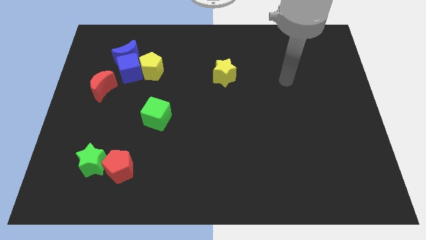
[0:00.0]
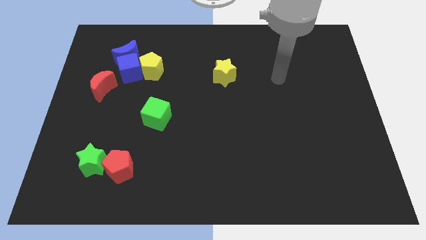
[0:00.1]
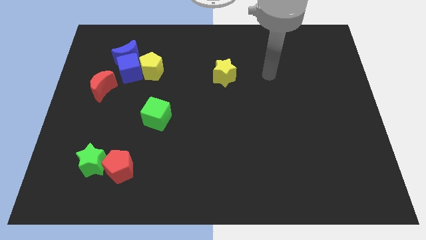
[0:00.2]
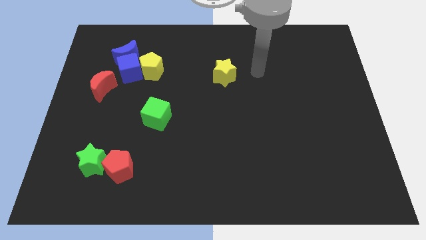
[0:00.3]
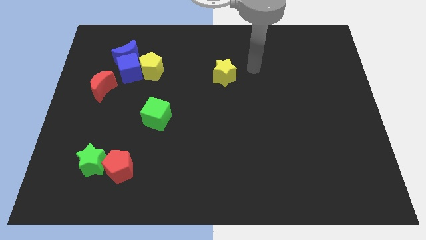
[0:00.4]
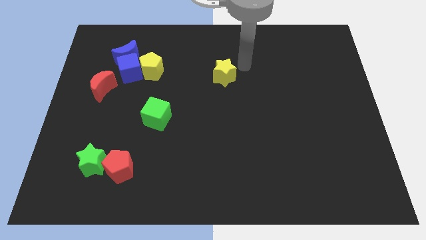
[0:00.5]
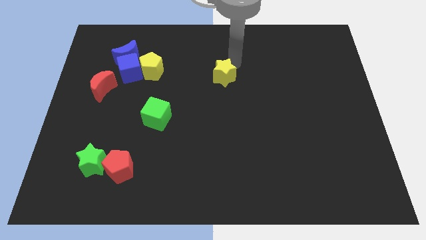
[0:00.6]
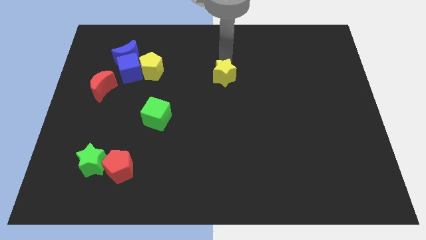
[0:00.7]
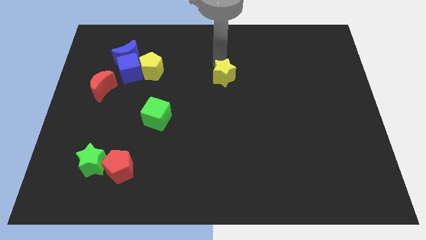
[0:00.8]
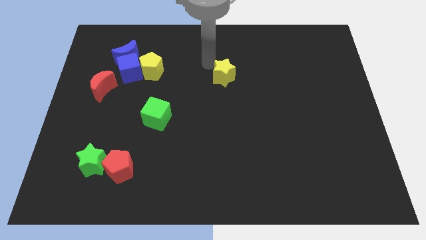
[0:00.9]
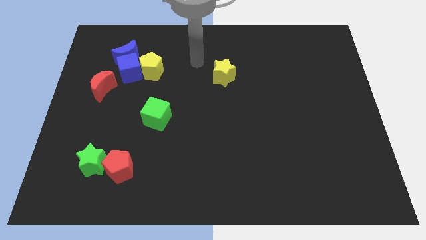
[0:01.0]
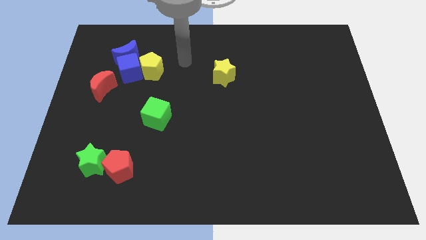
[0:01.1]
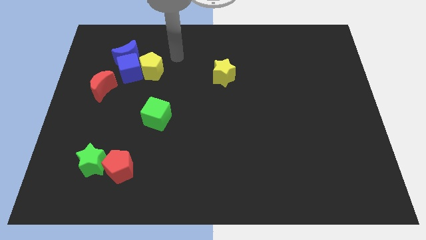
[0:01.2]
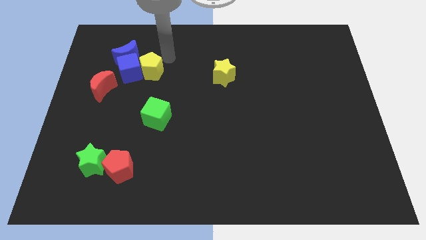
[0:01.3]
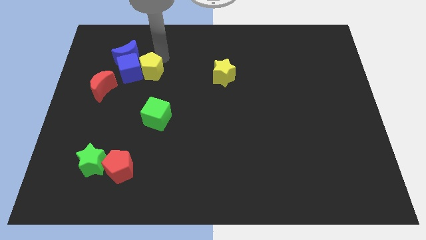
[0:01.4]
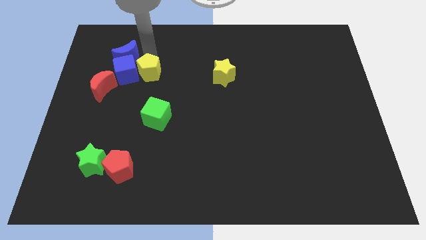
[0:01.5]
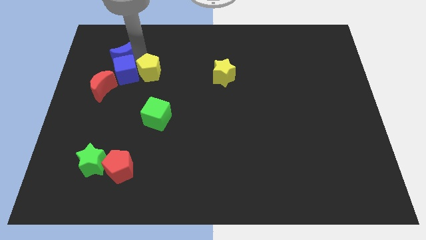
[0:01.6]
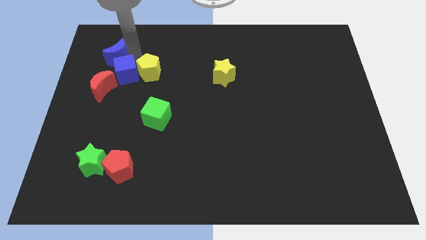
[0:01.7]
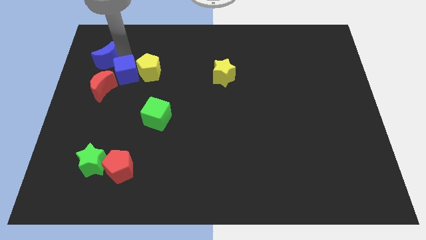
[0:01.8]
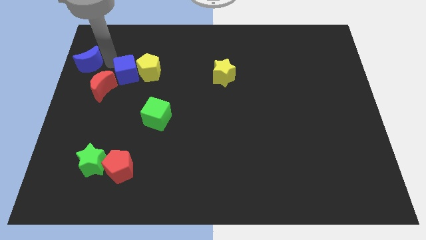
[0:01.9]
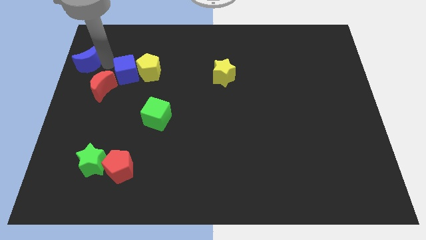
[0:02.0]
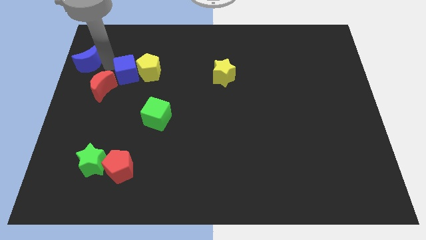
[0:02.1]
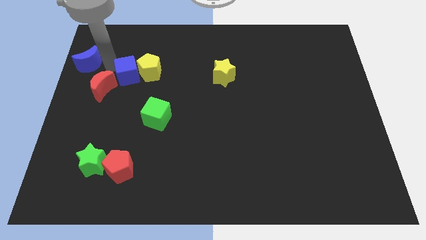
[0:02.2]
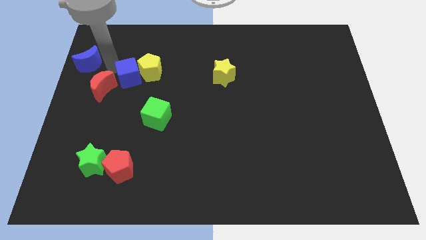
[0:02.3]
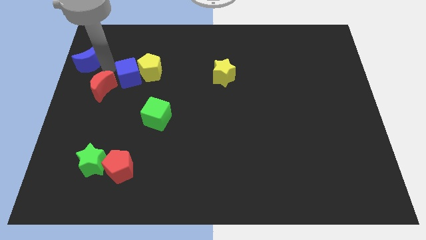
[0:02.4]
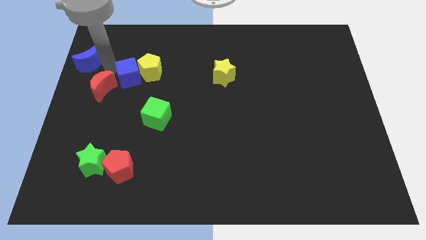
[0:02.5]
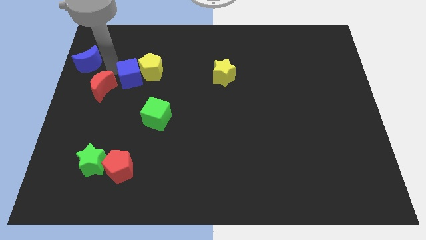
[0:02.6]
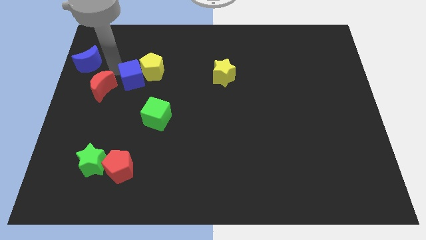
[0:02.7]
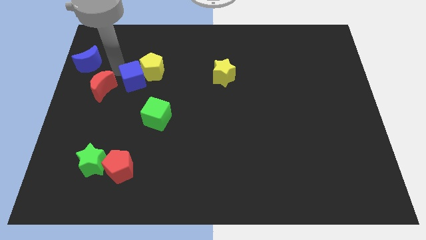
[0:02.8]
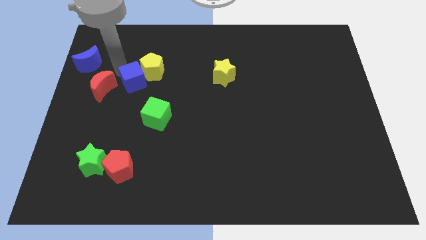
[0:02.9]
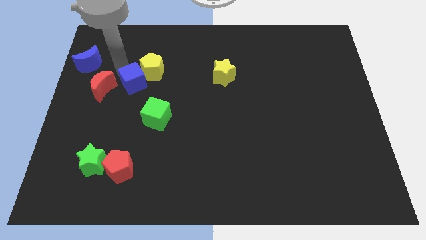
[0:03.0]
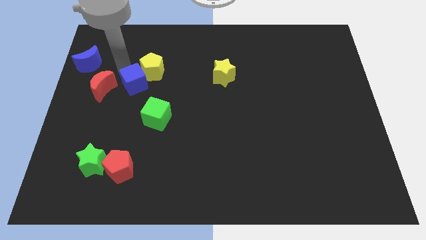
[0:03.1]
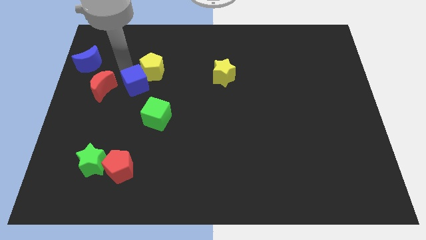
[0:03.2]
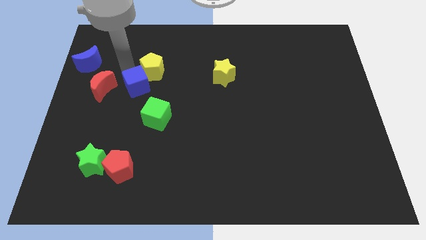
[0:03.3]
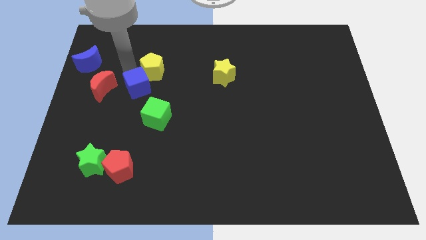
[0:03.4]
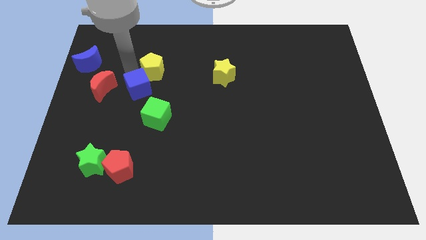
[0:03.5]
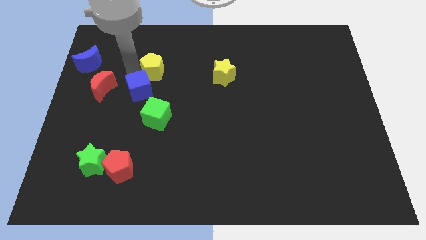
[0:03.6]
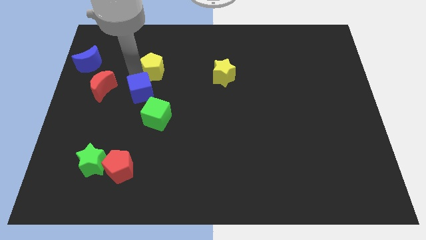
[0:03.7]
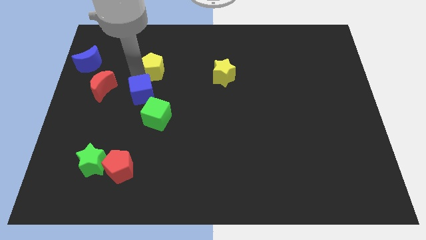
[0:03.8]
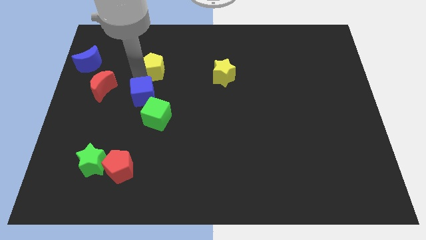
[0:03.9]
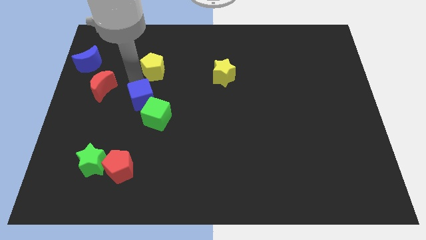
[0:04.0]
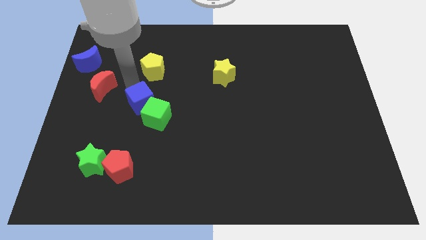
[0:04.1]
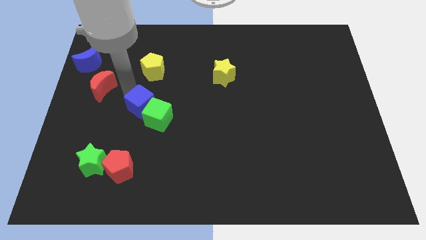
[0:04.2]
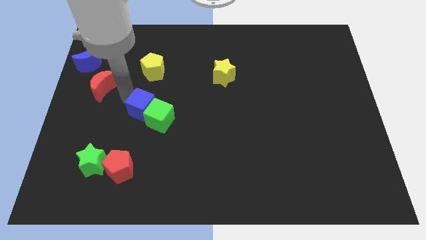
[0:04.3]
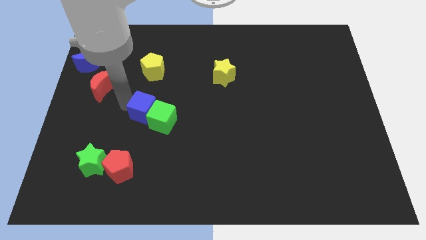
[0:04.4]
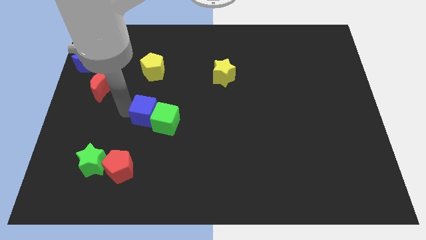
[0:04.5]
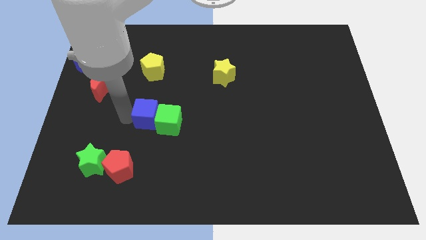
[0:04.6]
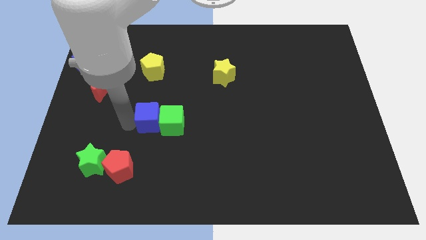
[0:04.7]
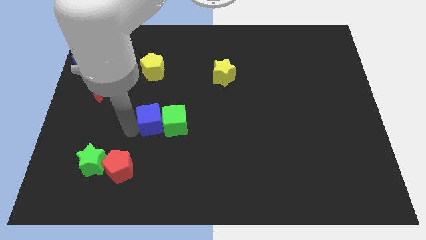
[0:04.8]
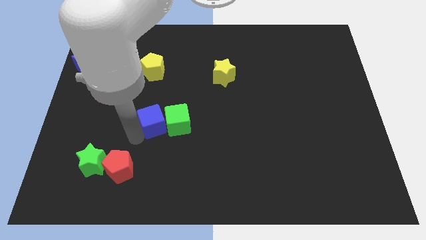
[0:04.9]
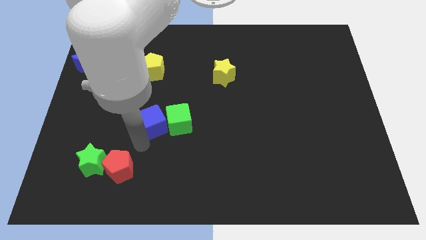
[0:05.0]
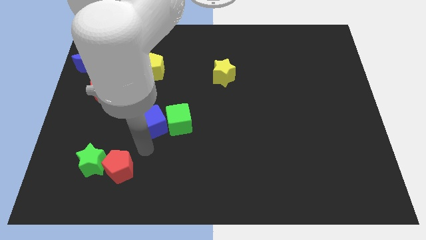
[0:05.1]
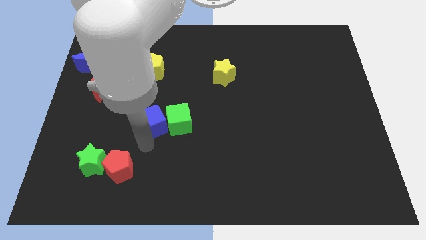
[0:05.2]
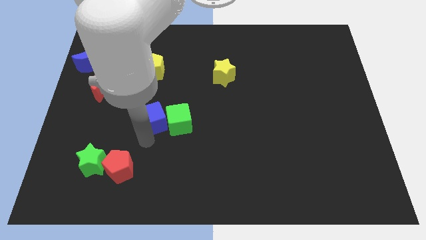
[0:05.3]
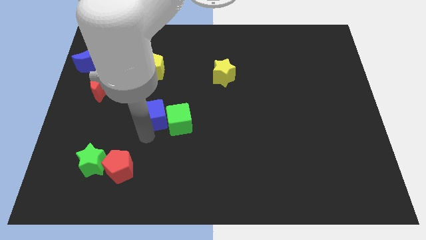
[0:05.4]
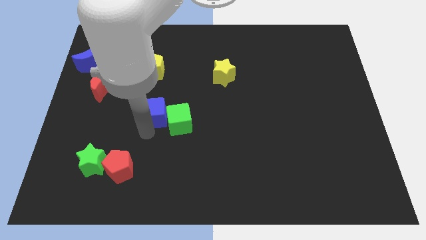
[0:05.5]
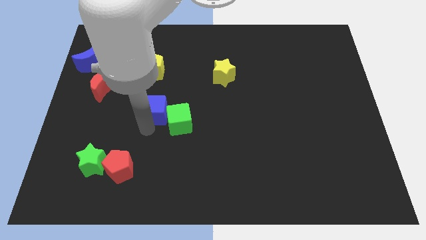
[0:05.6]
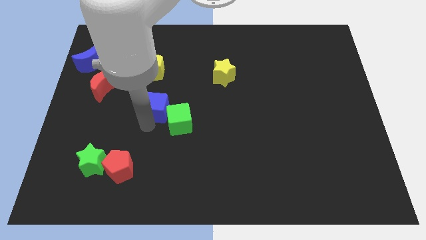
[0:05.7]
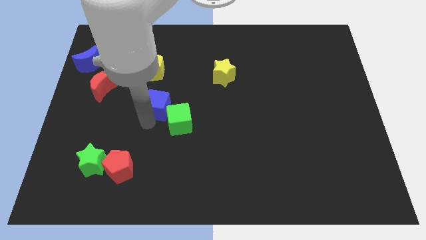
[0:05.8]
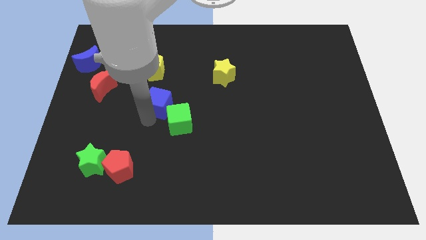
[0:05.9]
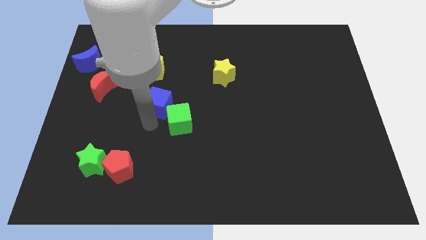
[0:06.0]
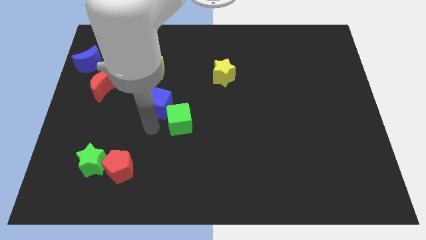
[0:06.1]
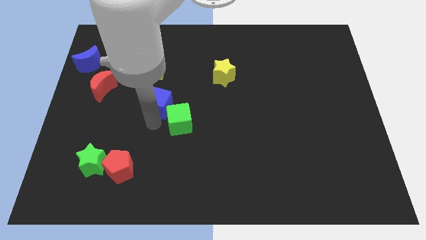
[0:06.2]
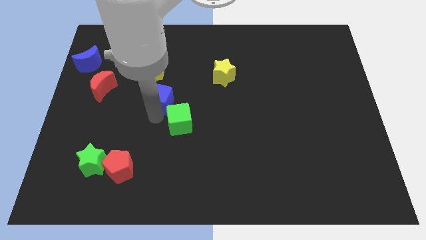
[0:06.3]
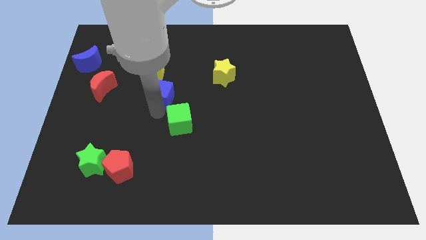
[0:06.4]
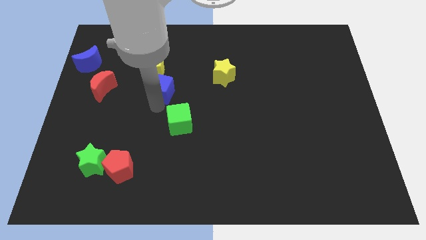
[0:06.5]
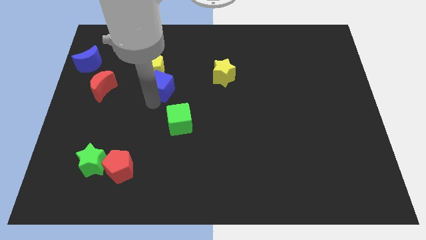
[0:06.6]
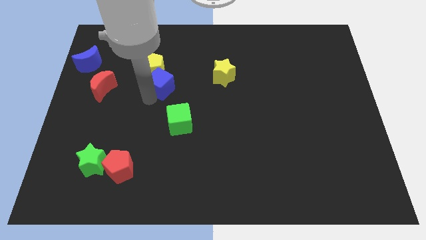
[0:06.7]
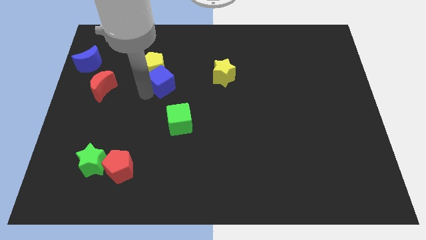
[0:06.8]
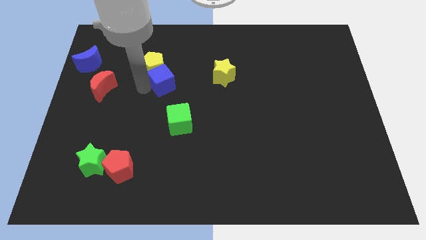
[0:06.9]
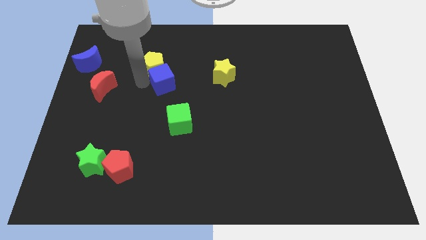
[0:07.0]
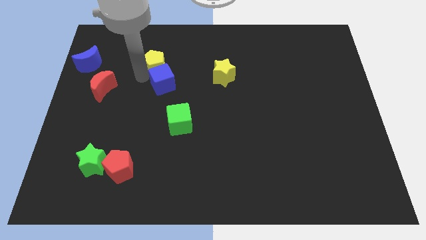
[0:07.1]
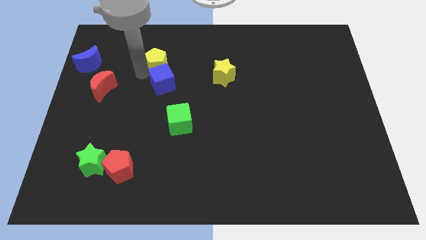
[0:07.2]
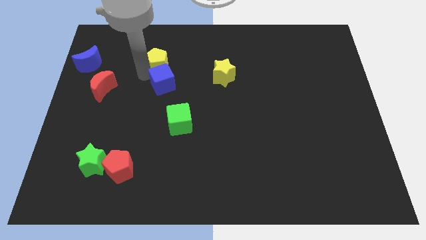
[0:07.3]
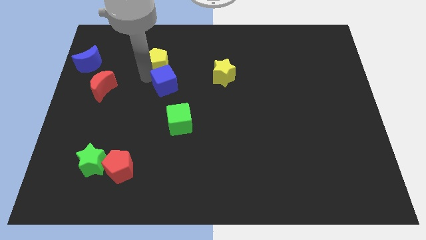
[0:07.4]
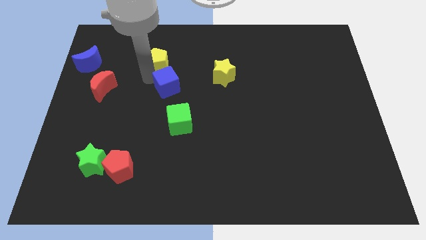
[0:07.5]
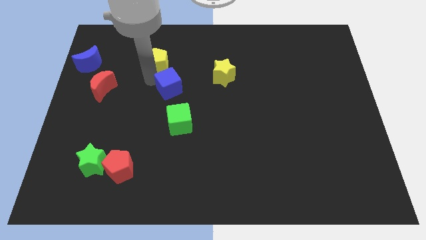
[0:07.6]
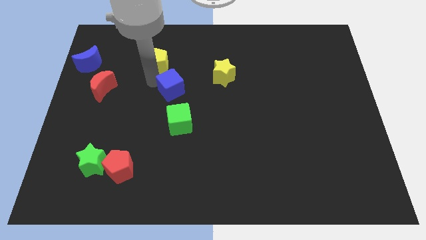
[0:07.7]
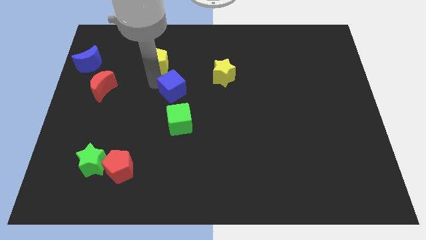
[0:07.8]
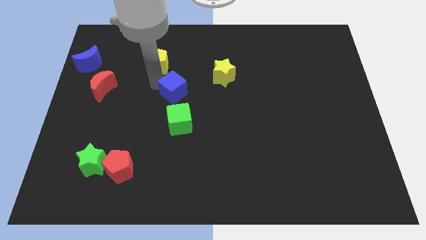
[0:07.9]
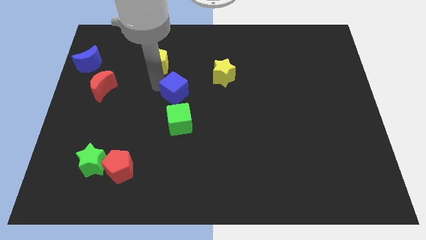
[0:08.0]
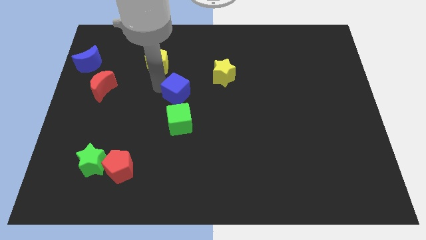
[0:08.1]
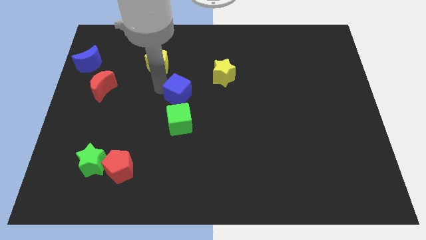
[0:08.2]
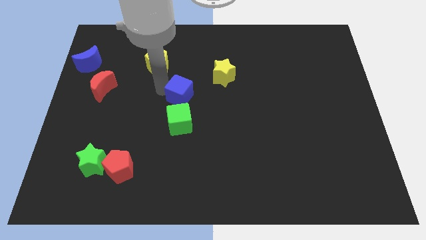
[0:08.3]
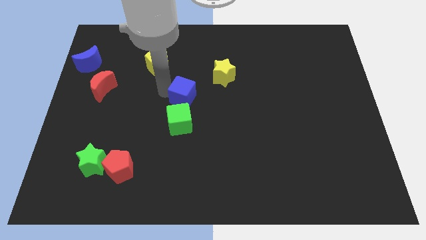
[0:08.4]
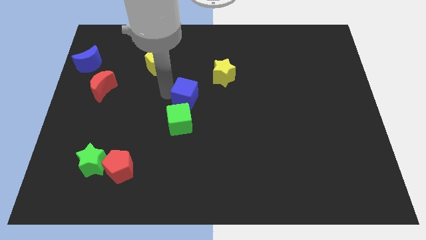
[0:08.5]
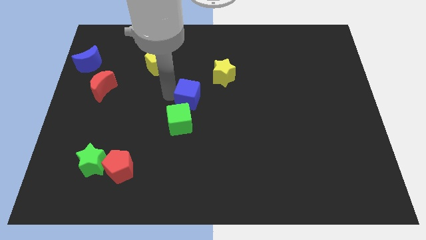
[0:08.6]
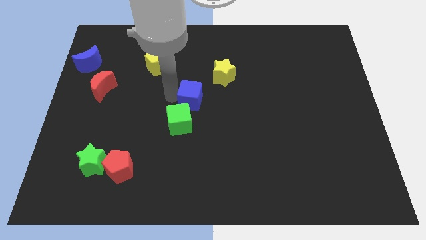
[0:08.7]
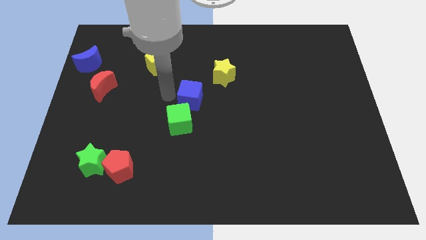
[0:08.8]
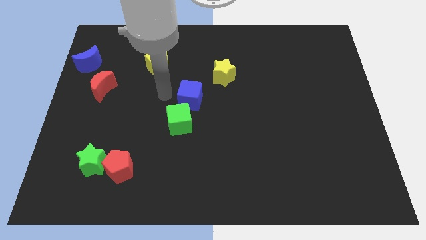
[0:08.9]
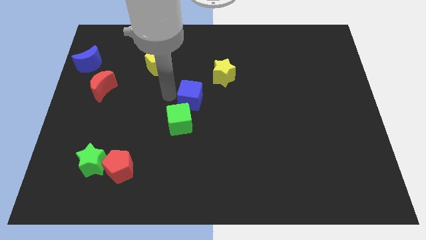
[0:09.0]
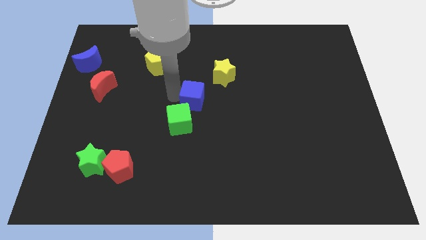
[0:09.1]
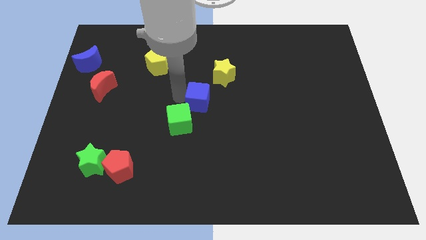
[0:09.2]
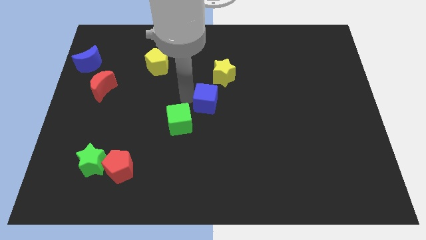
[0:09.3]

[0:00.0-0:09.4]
move the blue cube to the bottom side of the yellow star
